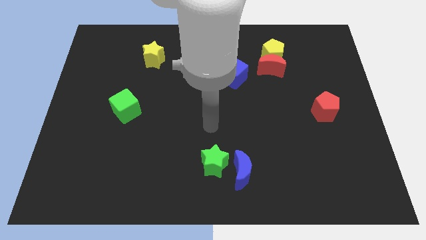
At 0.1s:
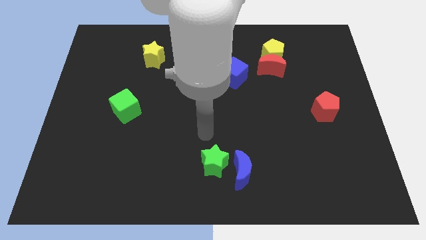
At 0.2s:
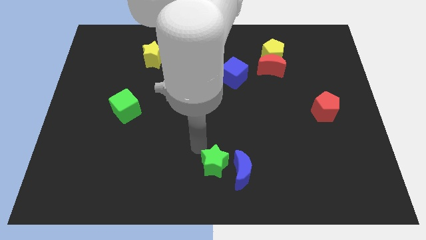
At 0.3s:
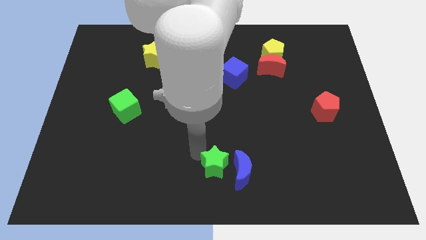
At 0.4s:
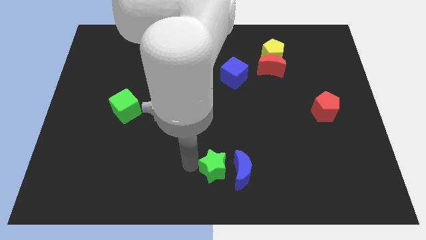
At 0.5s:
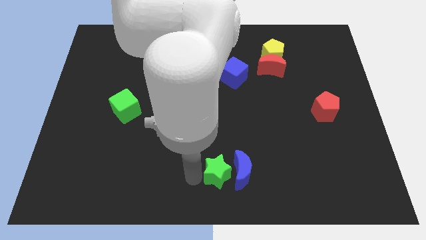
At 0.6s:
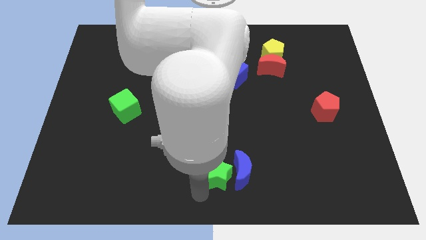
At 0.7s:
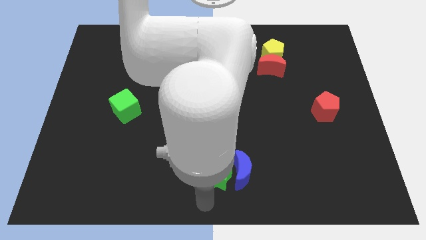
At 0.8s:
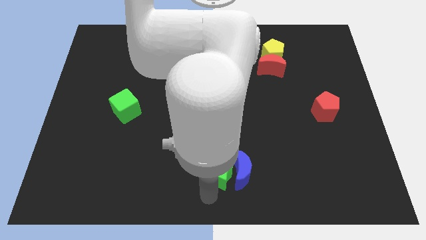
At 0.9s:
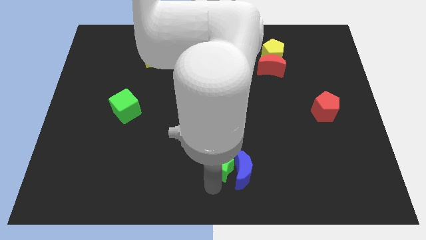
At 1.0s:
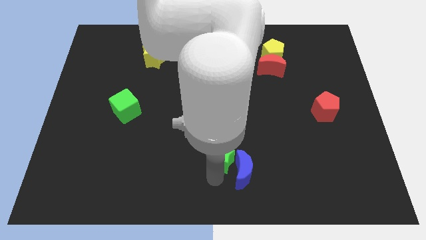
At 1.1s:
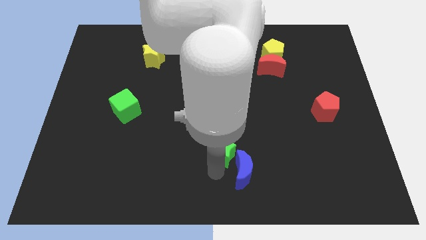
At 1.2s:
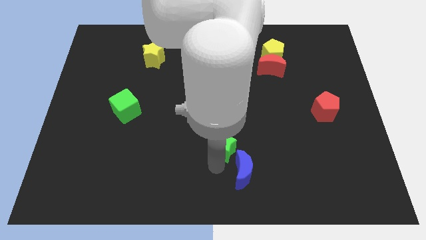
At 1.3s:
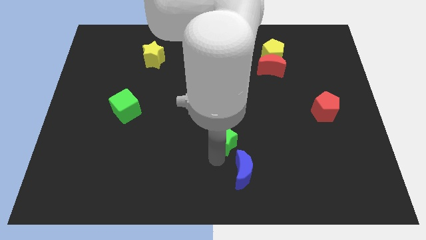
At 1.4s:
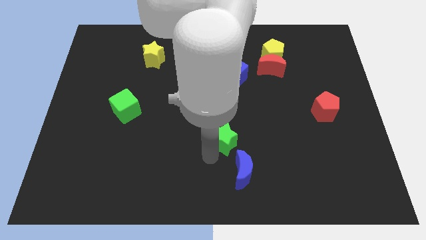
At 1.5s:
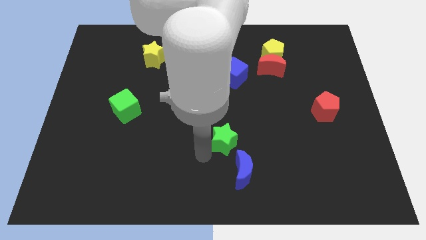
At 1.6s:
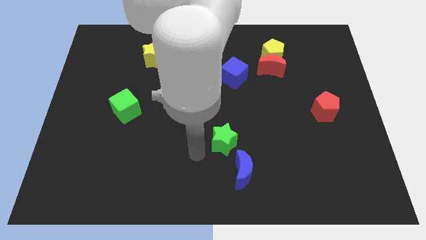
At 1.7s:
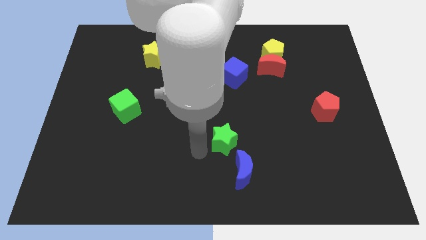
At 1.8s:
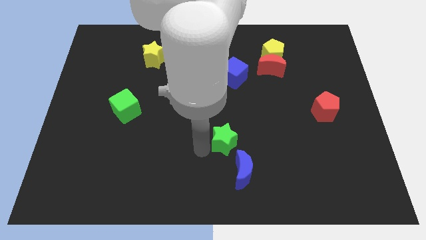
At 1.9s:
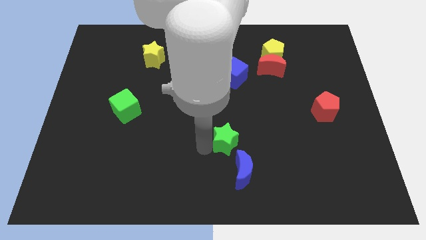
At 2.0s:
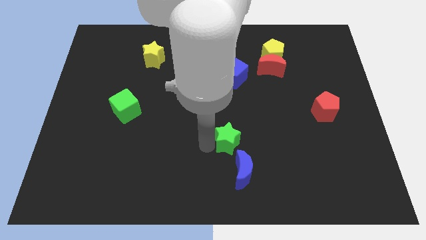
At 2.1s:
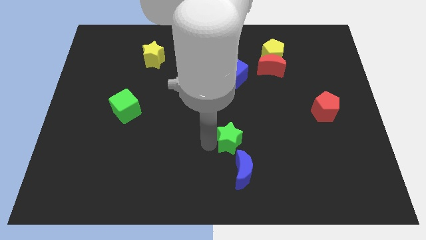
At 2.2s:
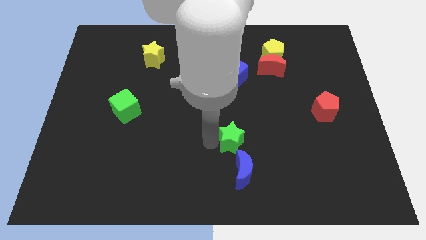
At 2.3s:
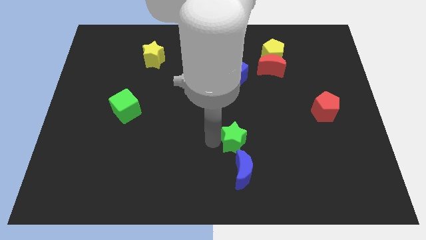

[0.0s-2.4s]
slightly move the green star diagonally upwards and right

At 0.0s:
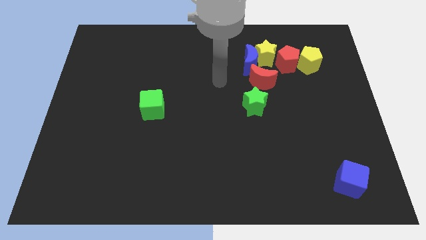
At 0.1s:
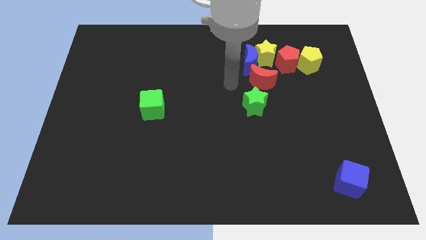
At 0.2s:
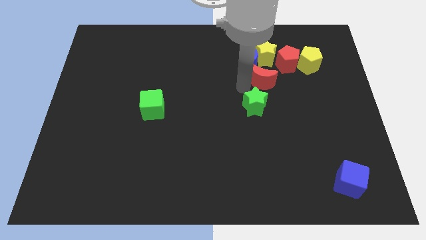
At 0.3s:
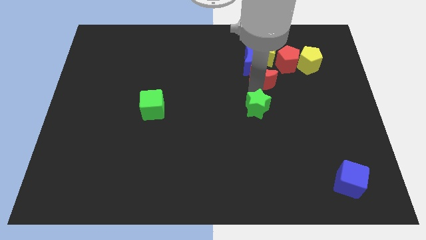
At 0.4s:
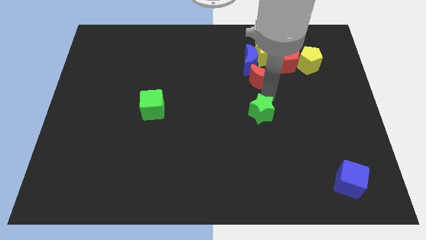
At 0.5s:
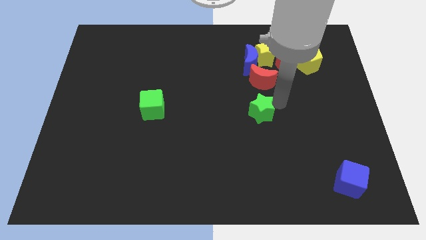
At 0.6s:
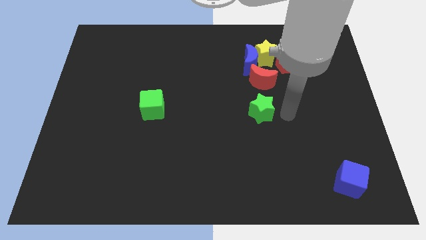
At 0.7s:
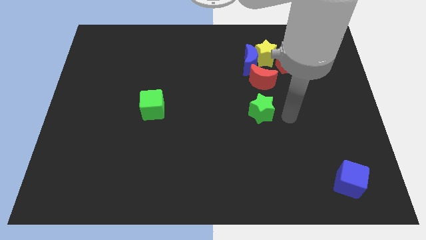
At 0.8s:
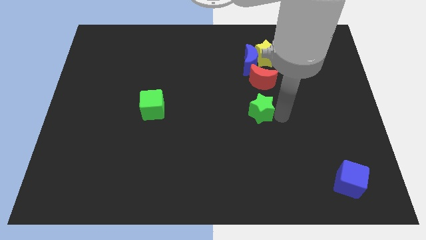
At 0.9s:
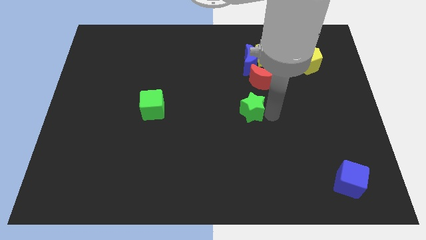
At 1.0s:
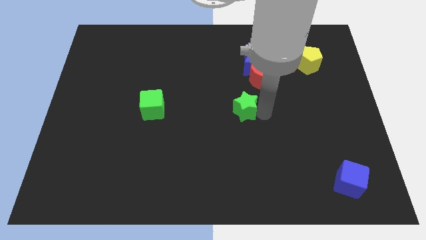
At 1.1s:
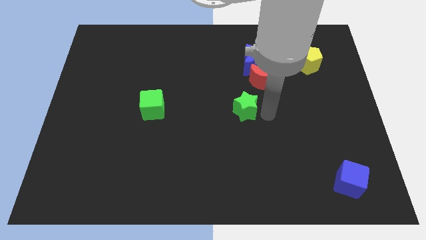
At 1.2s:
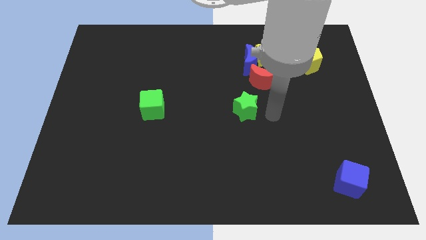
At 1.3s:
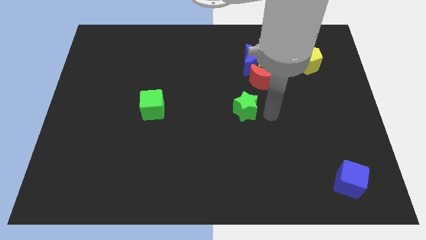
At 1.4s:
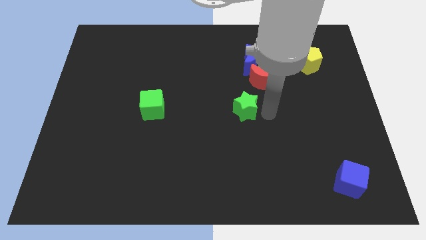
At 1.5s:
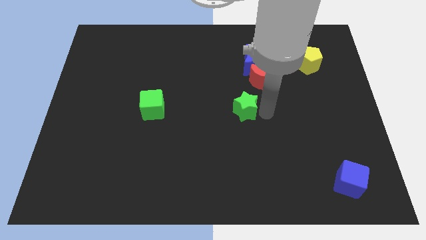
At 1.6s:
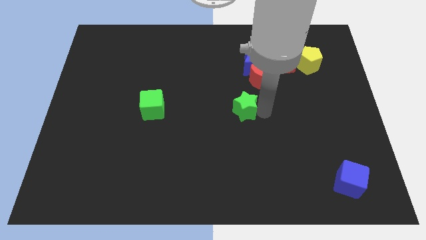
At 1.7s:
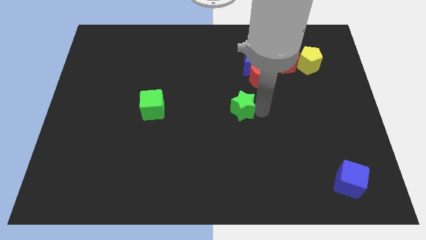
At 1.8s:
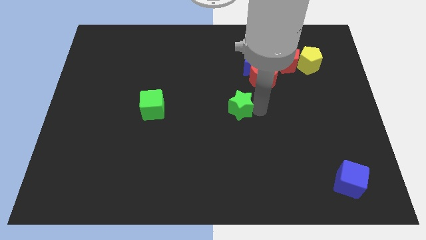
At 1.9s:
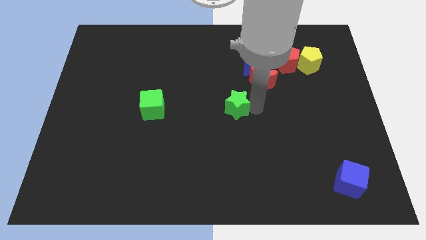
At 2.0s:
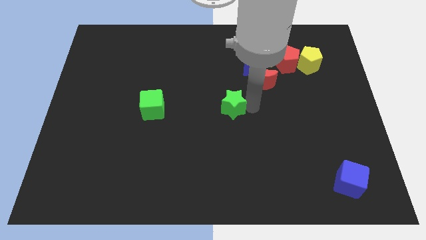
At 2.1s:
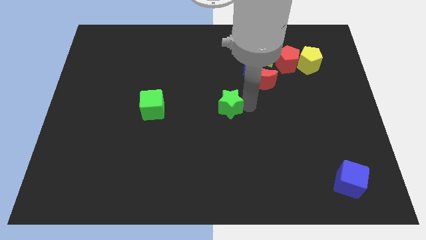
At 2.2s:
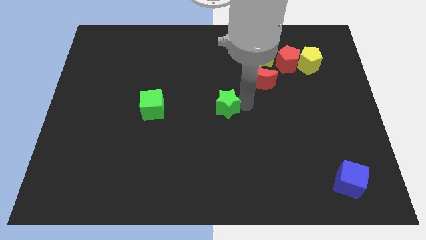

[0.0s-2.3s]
push the green star left somewhat

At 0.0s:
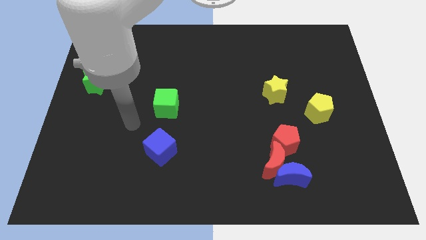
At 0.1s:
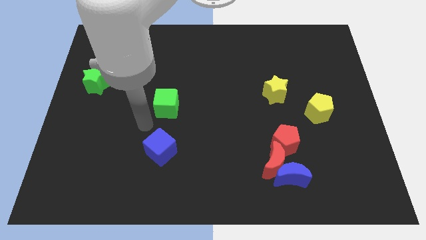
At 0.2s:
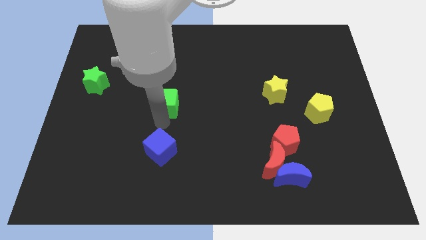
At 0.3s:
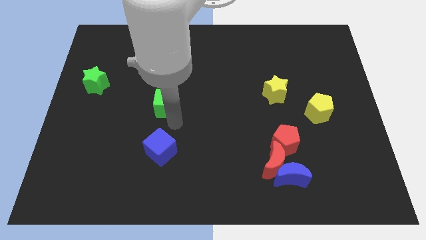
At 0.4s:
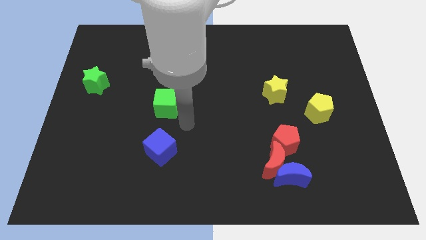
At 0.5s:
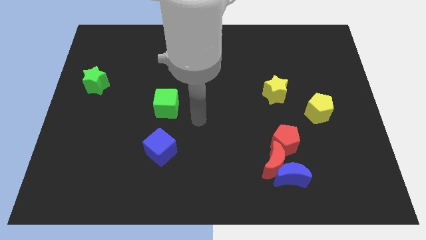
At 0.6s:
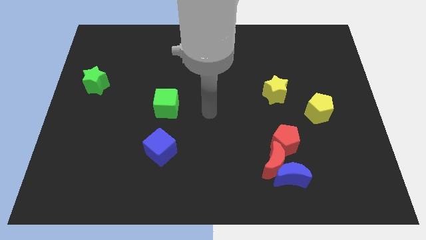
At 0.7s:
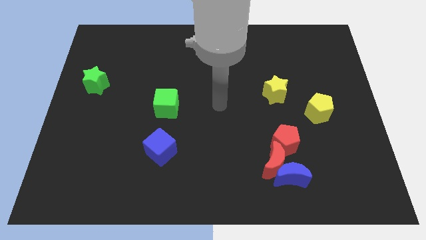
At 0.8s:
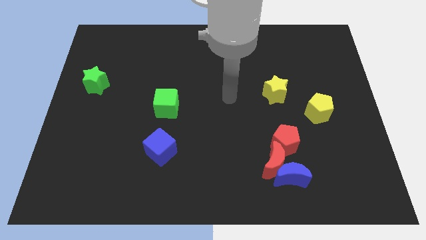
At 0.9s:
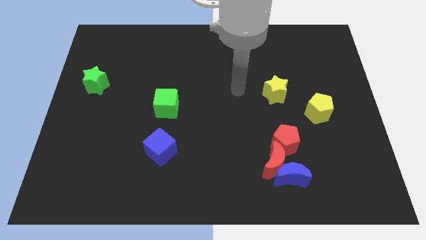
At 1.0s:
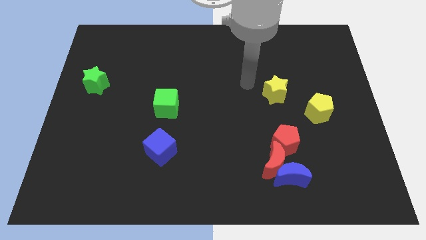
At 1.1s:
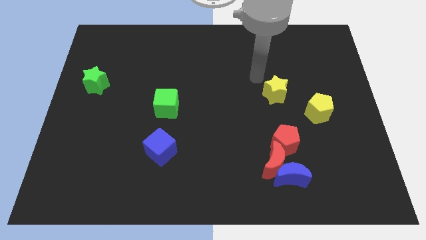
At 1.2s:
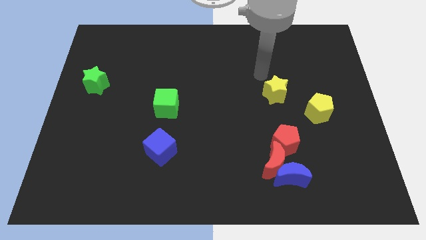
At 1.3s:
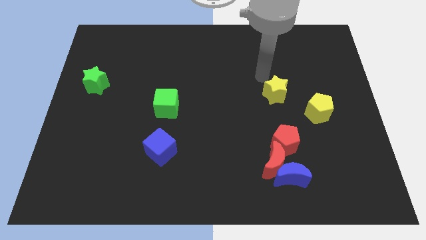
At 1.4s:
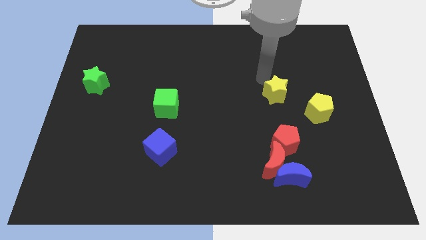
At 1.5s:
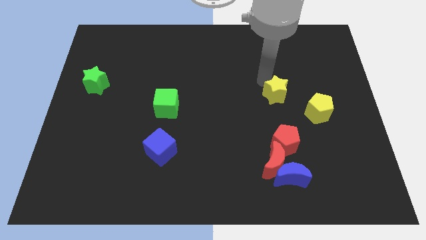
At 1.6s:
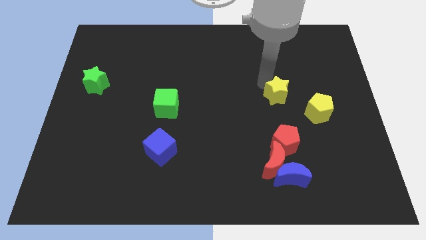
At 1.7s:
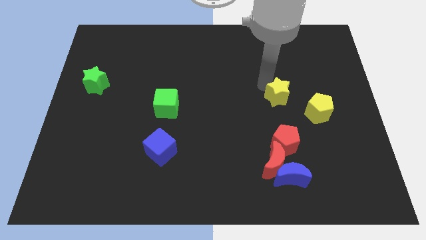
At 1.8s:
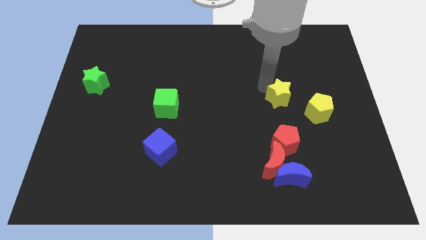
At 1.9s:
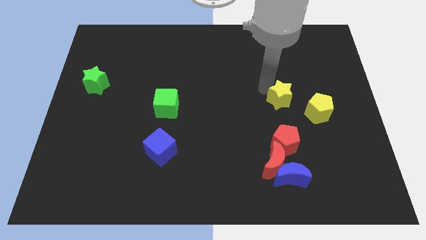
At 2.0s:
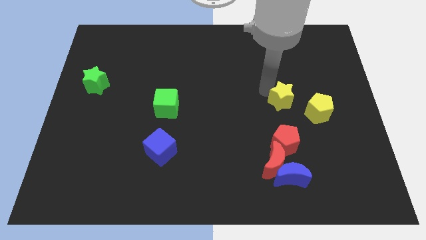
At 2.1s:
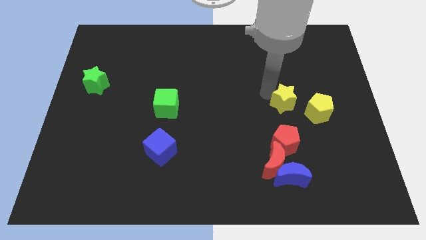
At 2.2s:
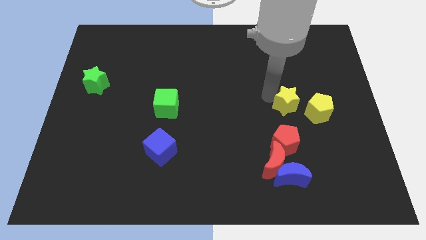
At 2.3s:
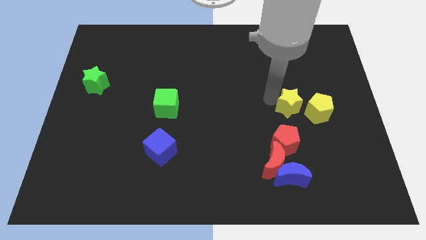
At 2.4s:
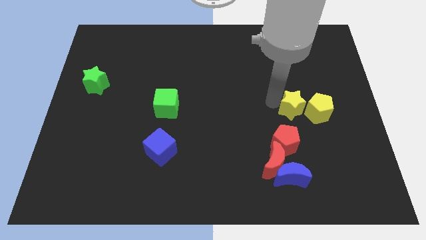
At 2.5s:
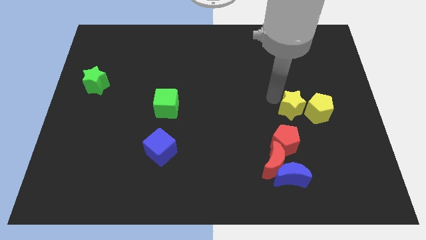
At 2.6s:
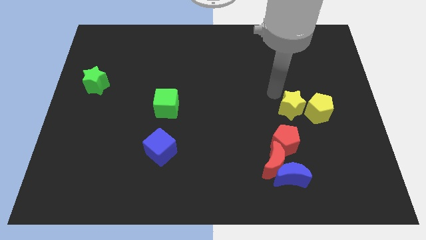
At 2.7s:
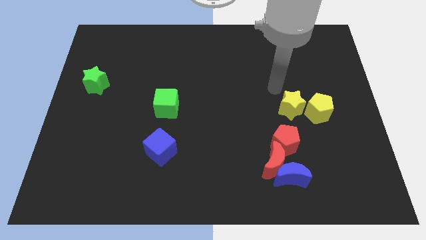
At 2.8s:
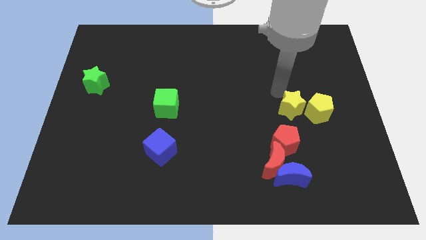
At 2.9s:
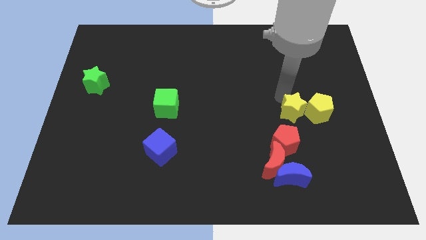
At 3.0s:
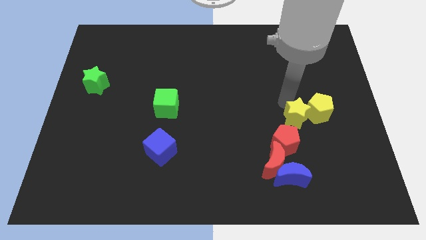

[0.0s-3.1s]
slide the yellow star diagonally down and to the right a bit

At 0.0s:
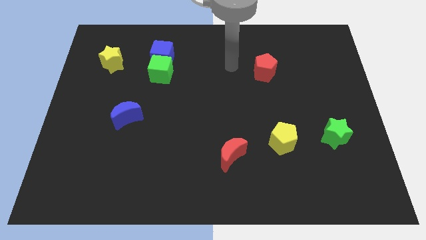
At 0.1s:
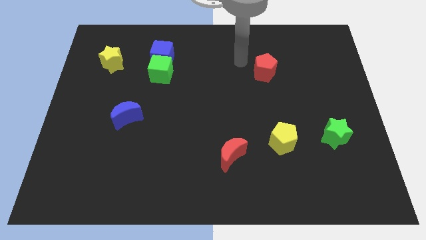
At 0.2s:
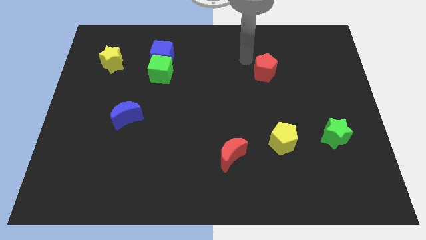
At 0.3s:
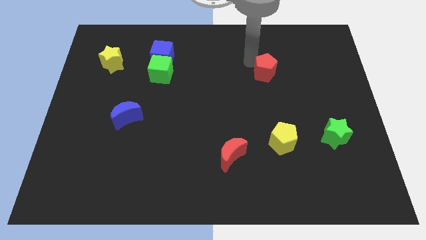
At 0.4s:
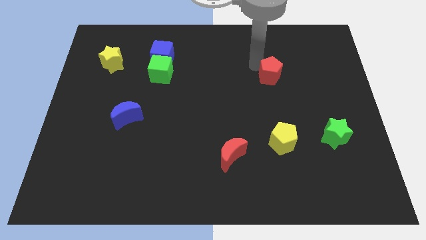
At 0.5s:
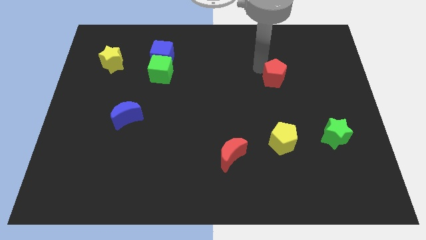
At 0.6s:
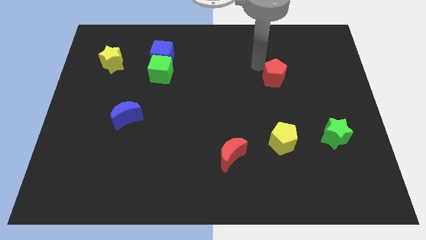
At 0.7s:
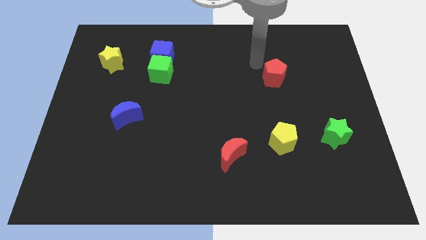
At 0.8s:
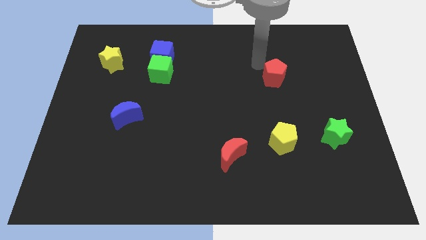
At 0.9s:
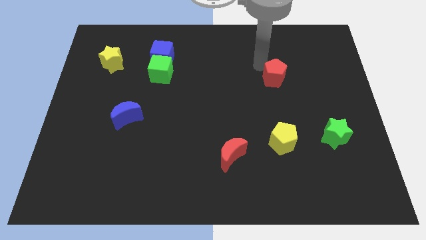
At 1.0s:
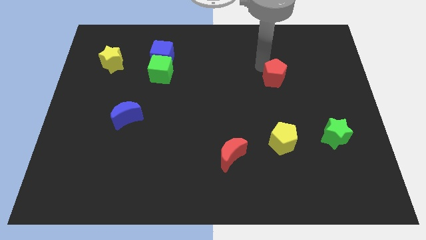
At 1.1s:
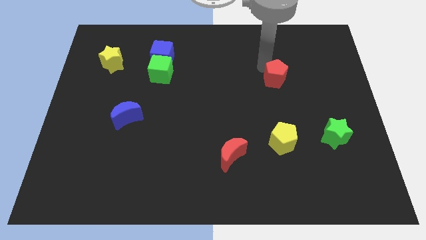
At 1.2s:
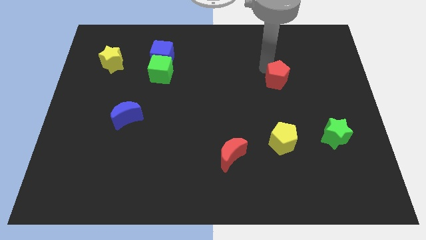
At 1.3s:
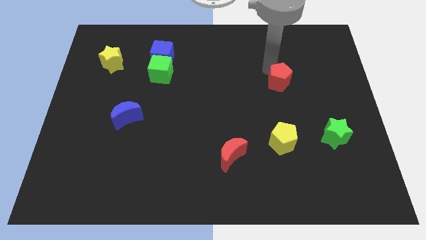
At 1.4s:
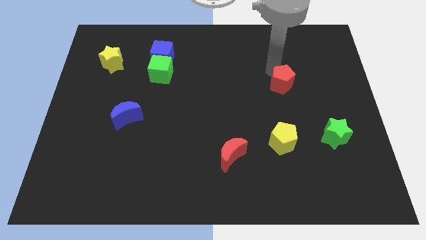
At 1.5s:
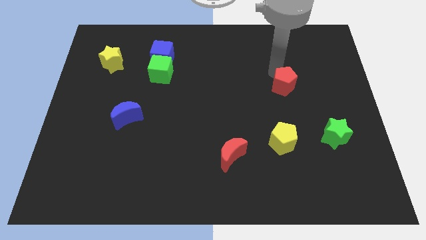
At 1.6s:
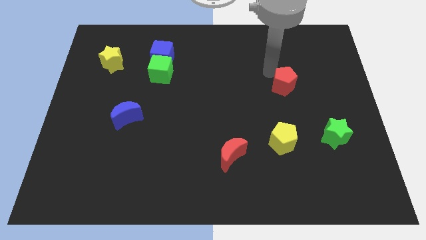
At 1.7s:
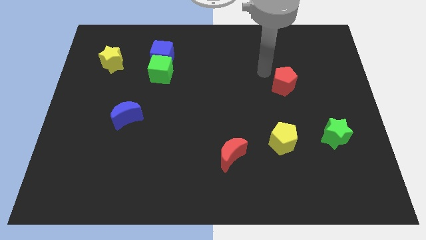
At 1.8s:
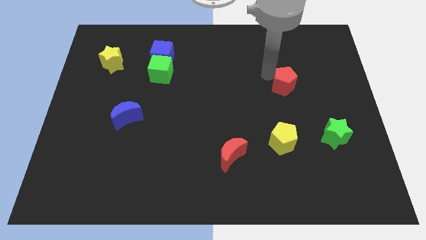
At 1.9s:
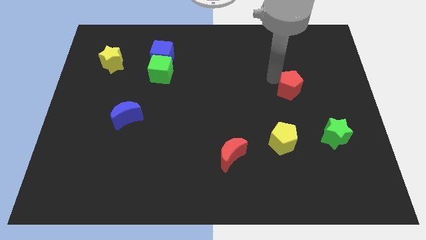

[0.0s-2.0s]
slide the red pentagon down and to the right a little
